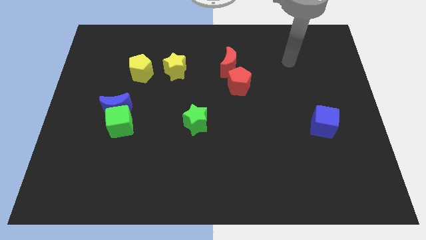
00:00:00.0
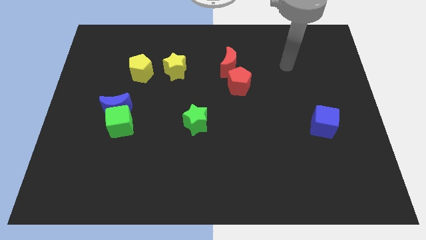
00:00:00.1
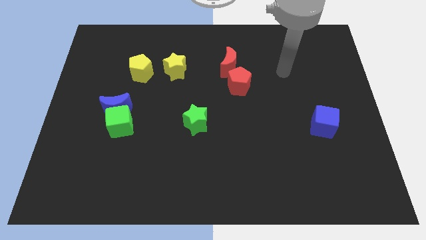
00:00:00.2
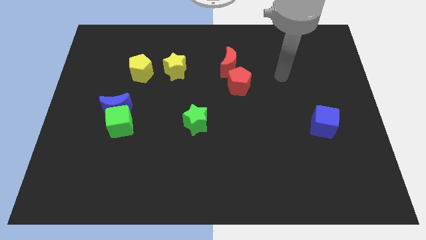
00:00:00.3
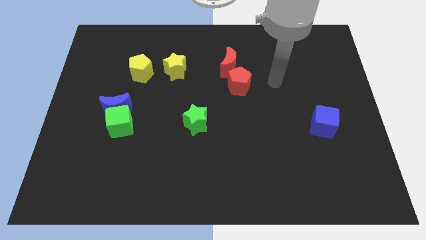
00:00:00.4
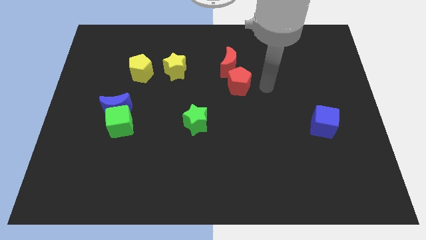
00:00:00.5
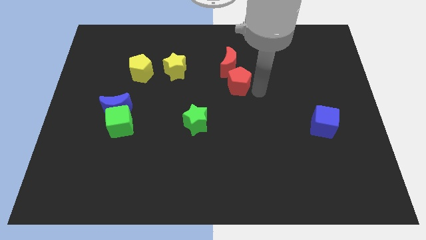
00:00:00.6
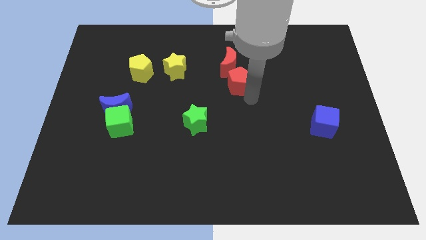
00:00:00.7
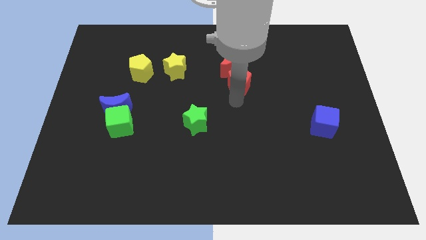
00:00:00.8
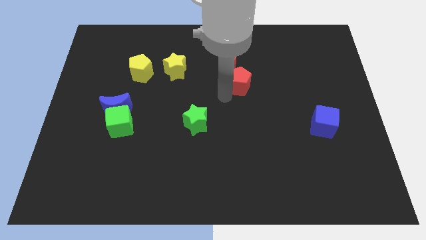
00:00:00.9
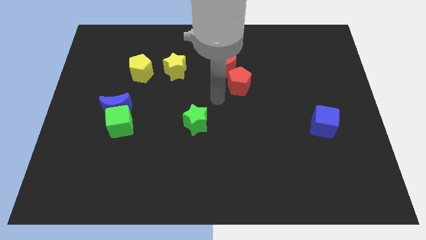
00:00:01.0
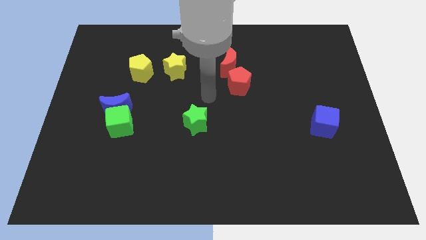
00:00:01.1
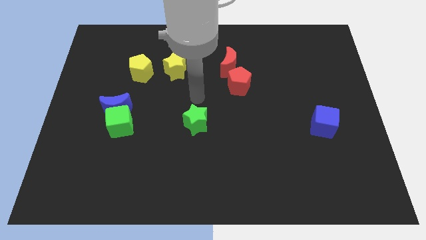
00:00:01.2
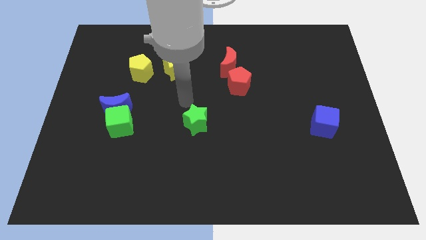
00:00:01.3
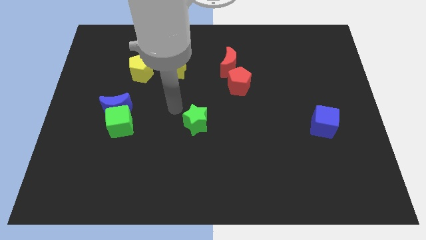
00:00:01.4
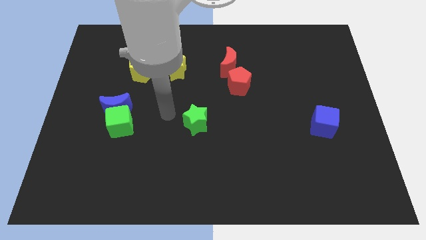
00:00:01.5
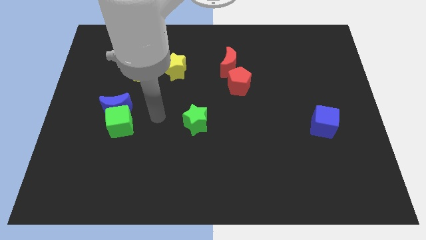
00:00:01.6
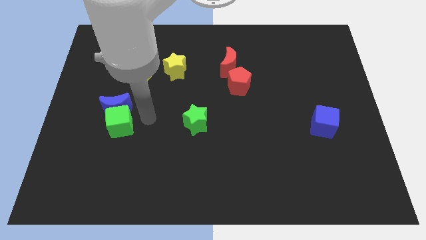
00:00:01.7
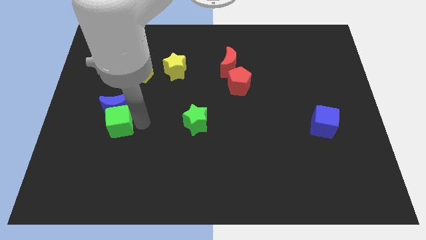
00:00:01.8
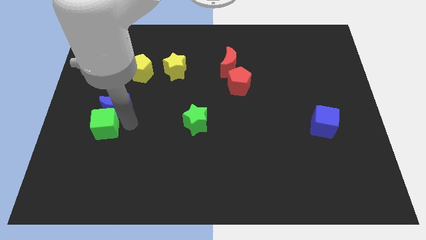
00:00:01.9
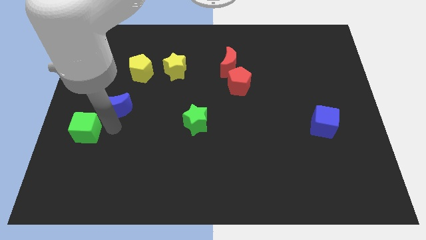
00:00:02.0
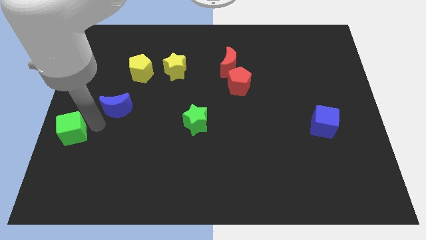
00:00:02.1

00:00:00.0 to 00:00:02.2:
move the blue moon away from the green cube

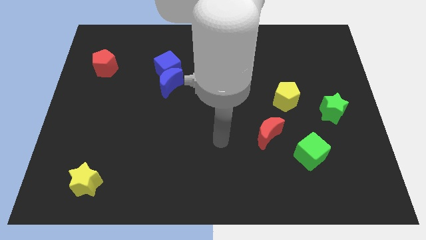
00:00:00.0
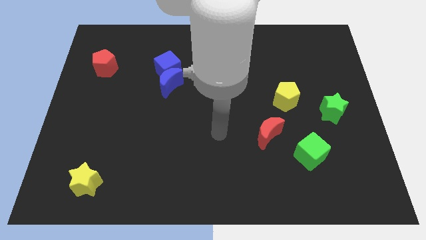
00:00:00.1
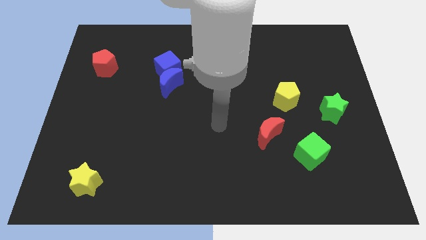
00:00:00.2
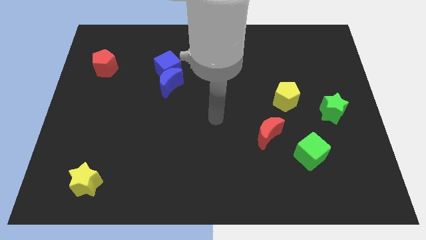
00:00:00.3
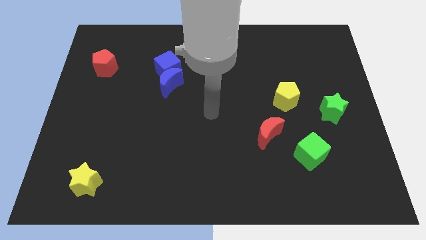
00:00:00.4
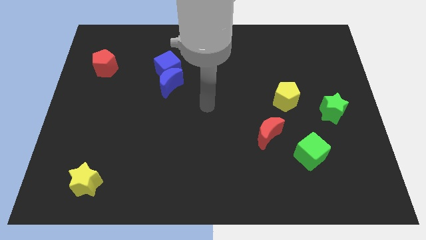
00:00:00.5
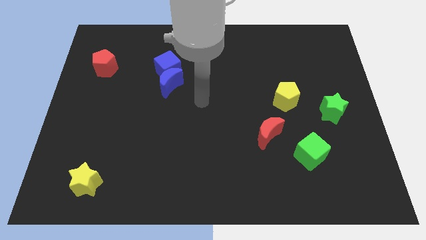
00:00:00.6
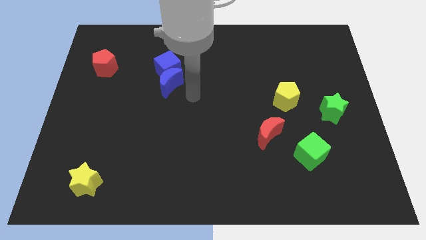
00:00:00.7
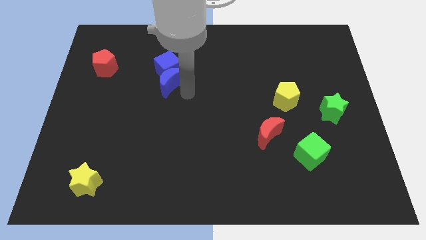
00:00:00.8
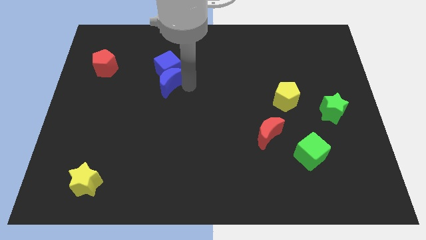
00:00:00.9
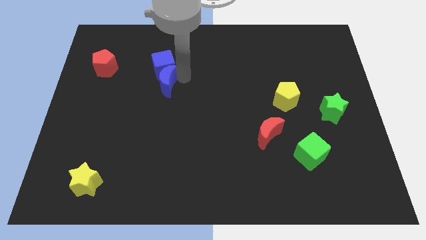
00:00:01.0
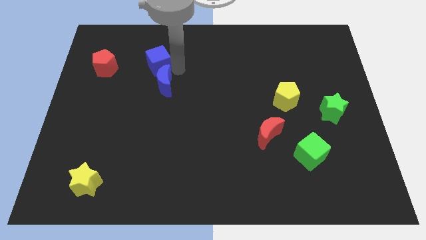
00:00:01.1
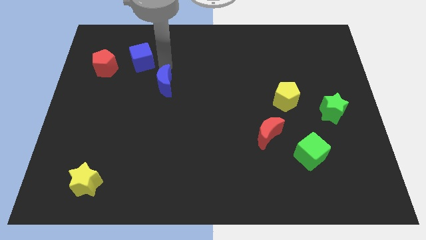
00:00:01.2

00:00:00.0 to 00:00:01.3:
pull the blue moon apart from the blue cube

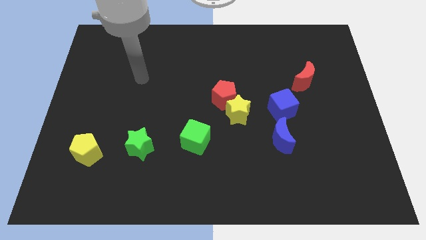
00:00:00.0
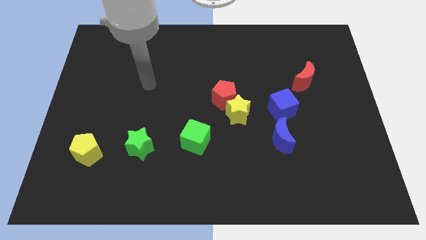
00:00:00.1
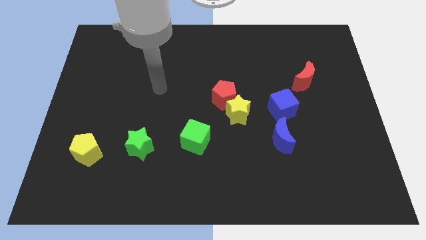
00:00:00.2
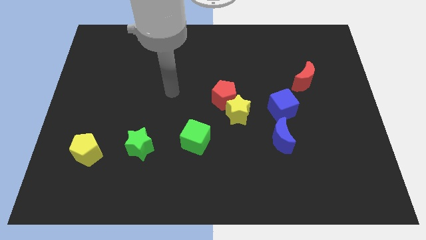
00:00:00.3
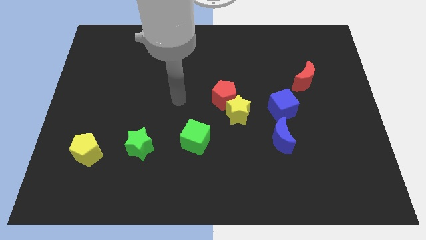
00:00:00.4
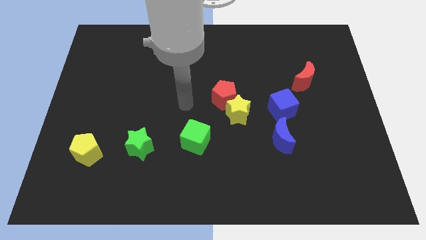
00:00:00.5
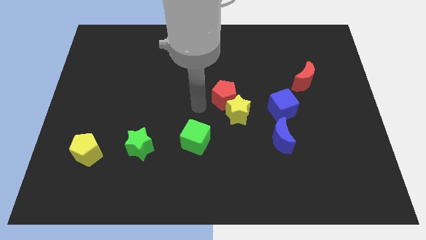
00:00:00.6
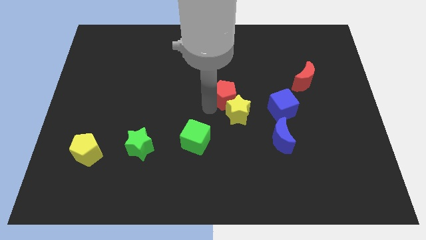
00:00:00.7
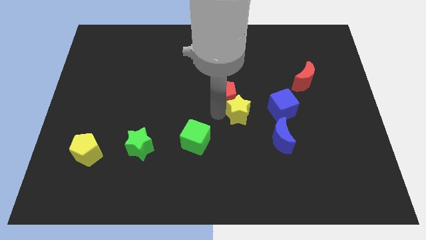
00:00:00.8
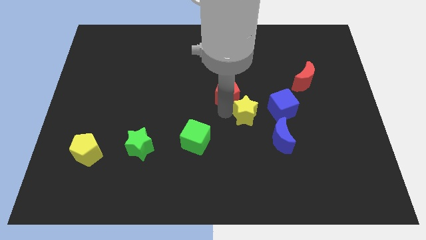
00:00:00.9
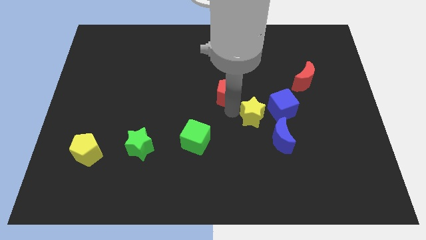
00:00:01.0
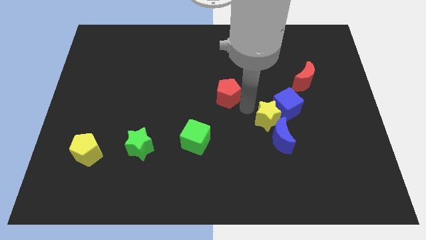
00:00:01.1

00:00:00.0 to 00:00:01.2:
move the red pentagon away from the yellow star

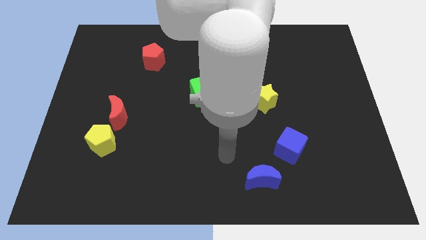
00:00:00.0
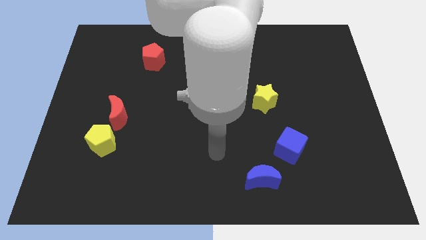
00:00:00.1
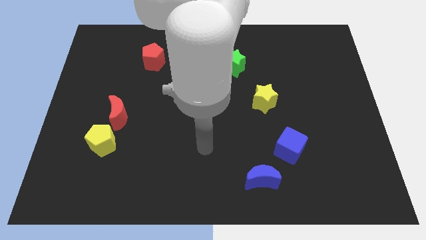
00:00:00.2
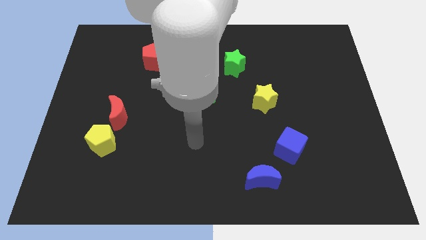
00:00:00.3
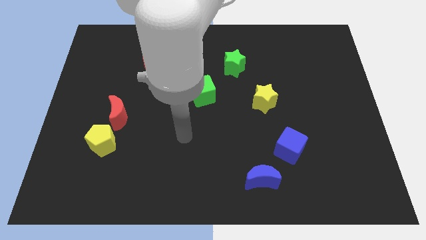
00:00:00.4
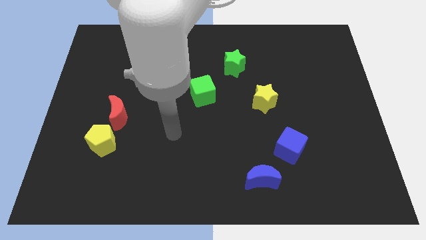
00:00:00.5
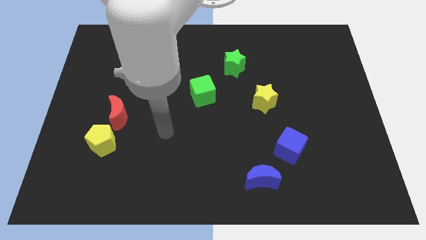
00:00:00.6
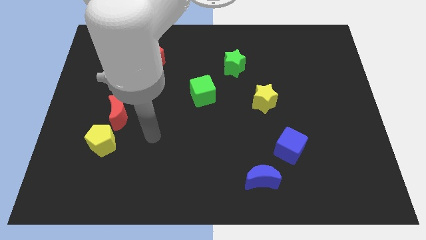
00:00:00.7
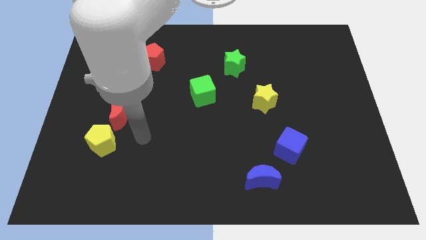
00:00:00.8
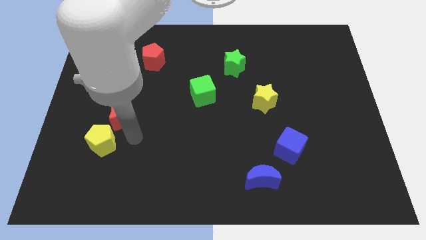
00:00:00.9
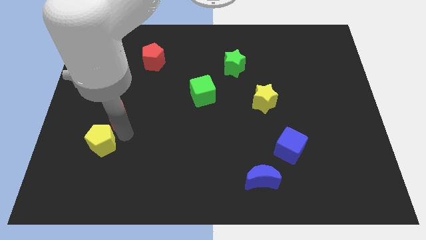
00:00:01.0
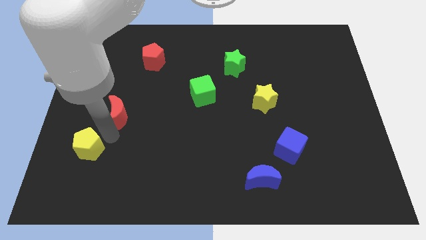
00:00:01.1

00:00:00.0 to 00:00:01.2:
separate the red moon from the yellow pentagon

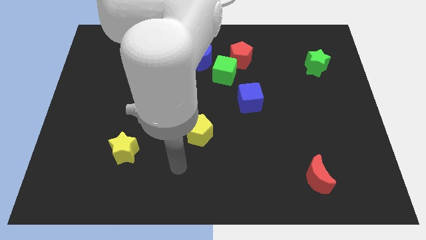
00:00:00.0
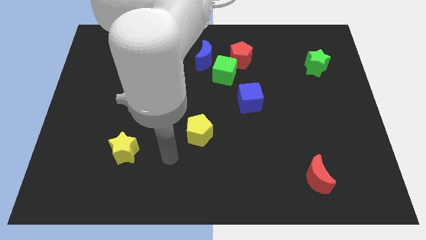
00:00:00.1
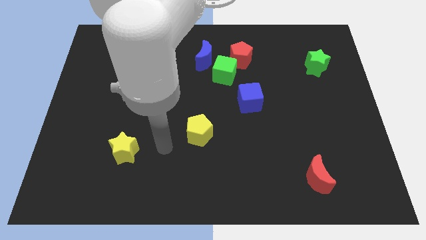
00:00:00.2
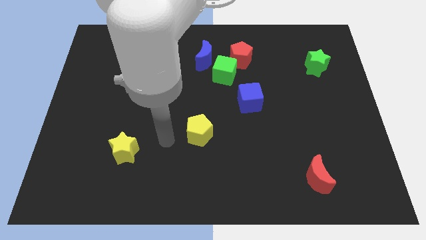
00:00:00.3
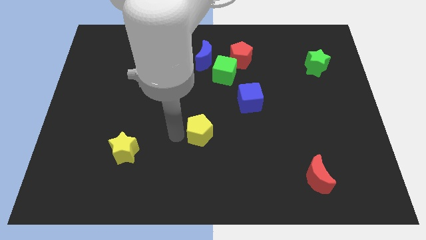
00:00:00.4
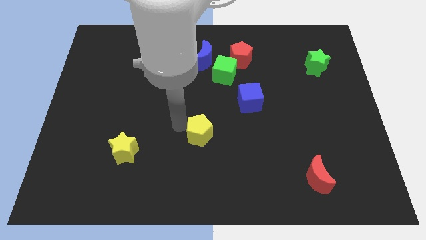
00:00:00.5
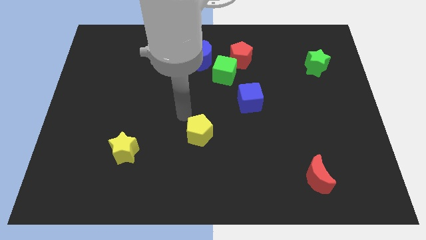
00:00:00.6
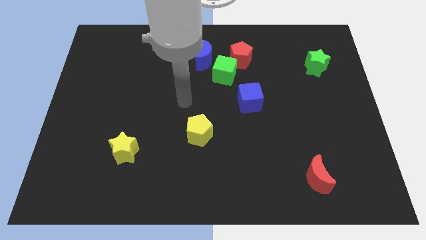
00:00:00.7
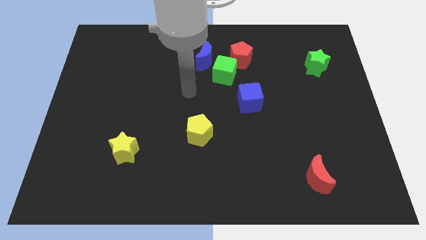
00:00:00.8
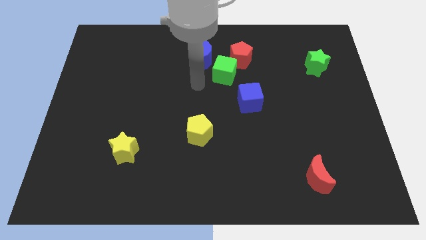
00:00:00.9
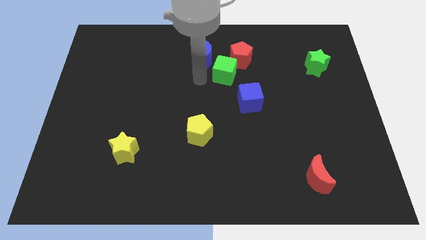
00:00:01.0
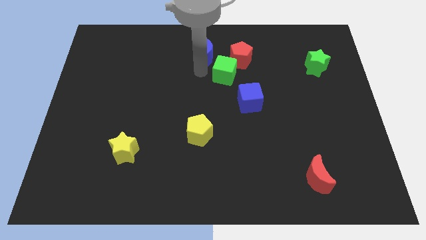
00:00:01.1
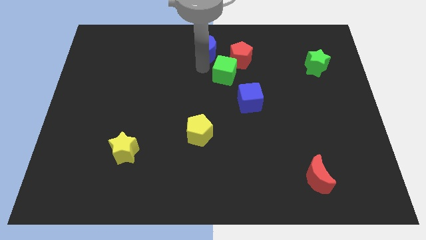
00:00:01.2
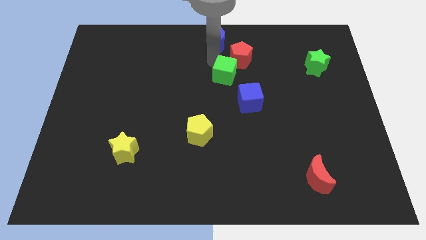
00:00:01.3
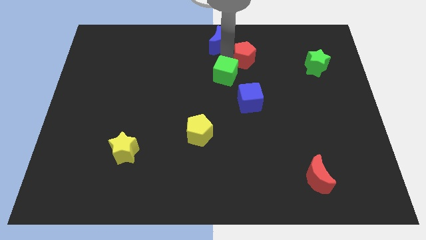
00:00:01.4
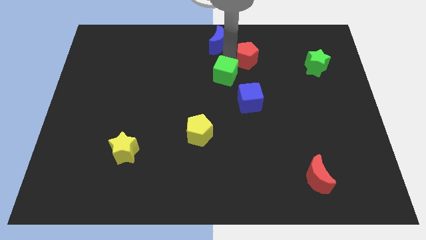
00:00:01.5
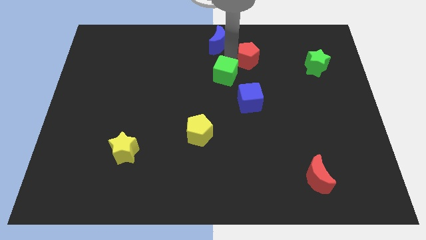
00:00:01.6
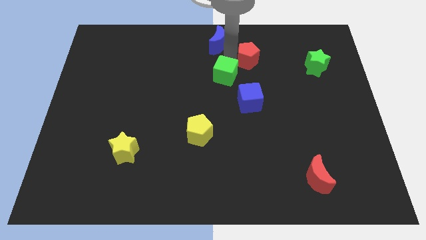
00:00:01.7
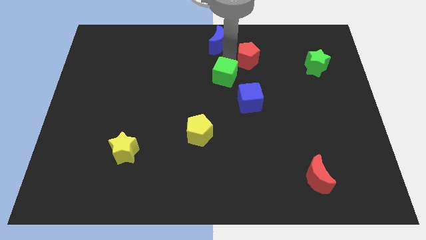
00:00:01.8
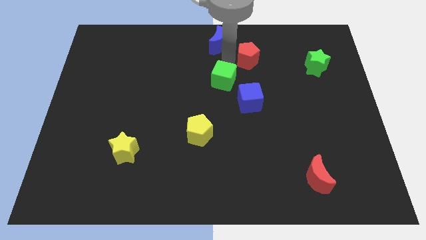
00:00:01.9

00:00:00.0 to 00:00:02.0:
pull the green cube apart from the red pentagon and blue moon

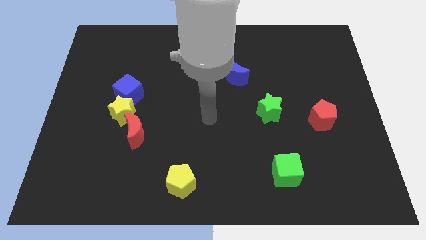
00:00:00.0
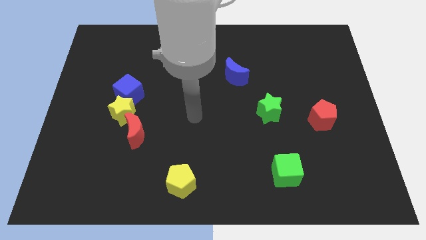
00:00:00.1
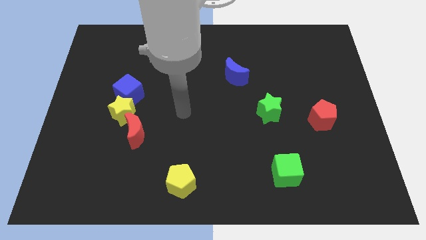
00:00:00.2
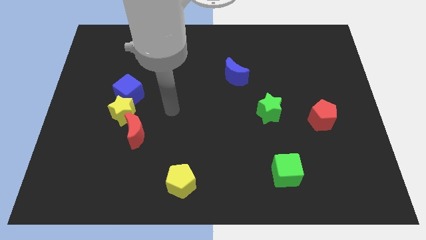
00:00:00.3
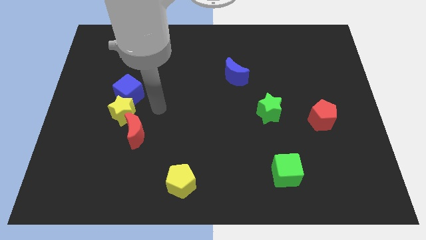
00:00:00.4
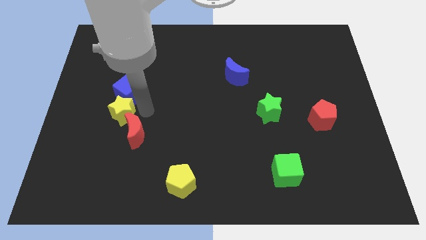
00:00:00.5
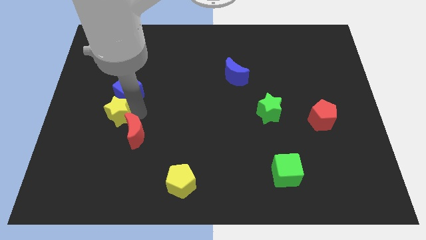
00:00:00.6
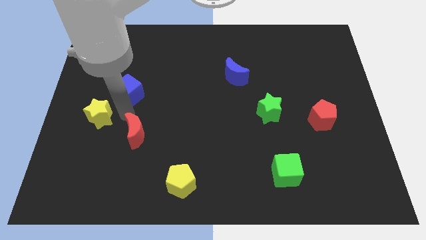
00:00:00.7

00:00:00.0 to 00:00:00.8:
move the red moon away from the yellow star

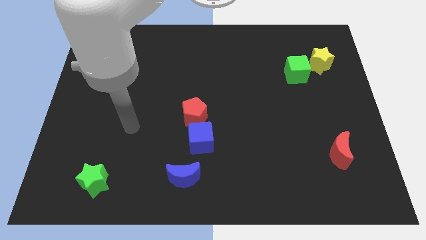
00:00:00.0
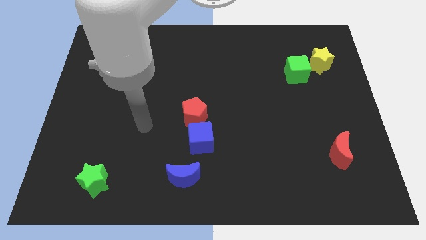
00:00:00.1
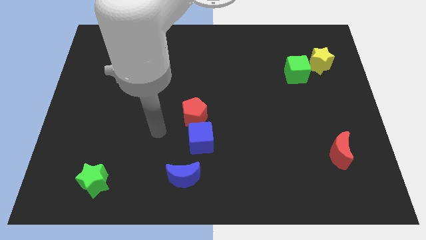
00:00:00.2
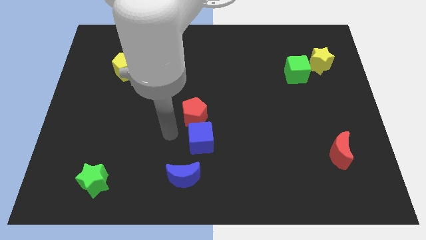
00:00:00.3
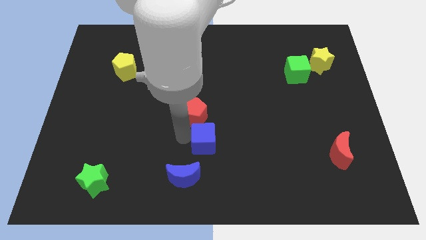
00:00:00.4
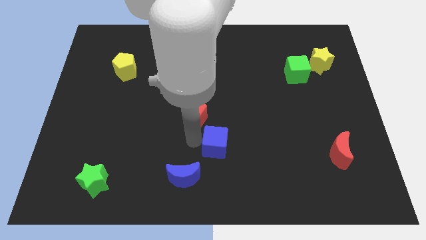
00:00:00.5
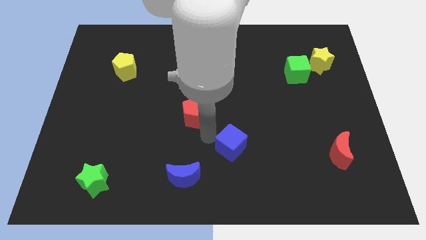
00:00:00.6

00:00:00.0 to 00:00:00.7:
separate the red pentagon from the blue cube

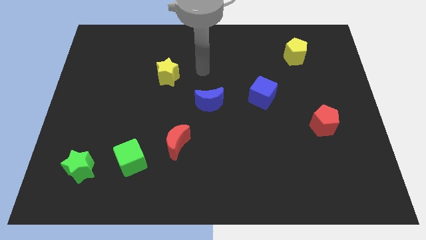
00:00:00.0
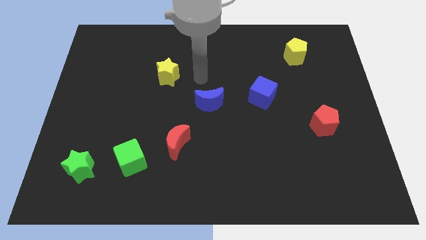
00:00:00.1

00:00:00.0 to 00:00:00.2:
pull the red moon apart from the green cube
